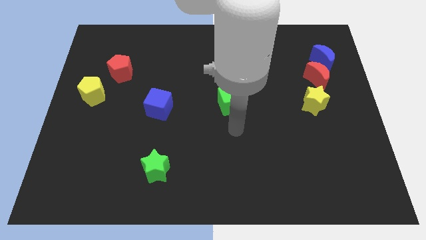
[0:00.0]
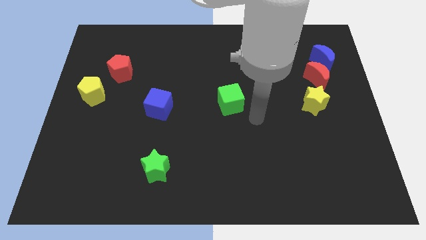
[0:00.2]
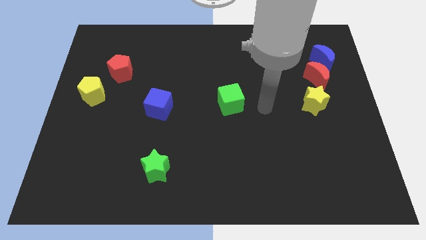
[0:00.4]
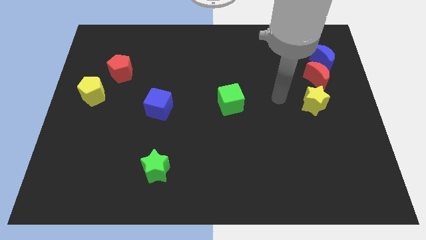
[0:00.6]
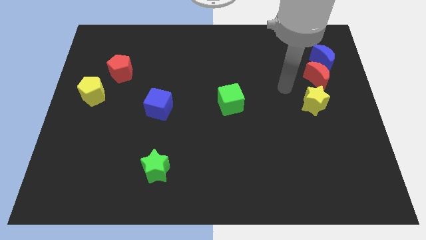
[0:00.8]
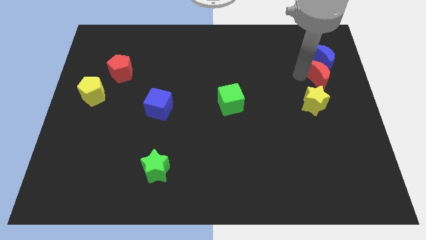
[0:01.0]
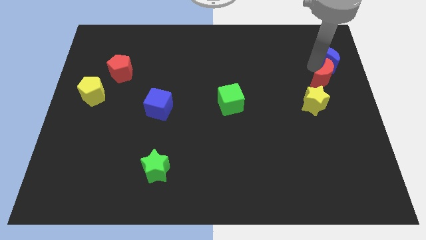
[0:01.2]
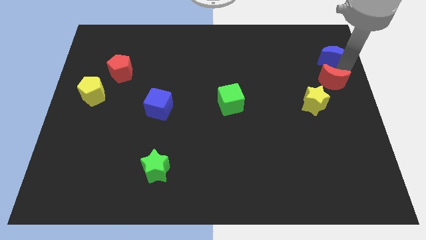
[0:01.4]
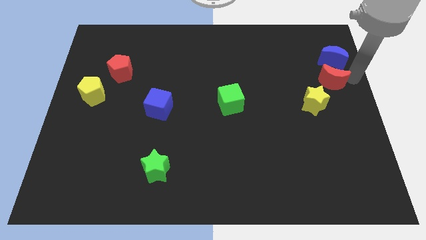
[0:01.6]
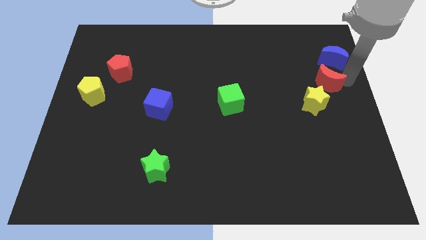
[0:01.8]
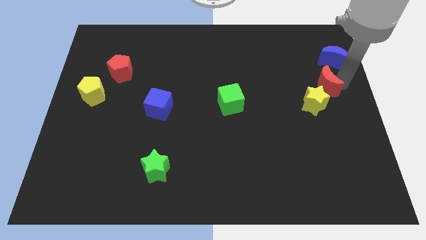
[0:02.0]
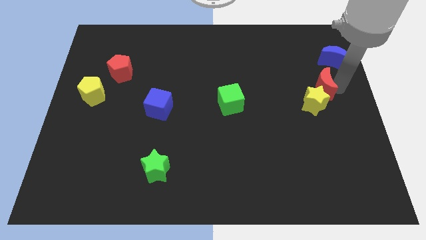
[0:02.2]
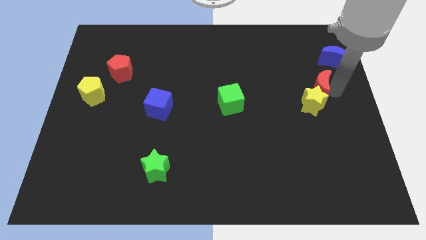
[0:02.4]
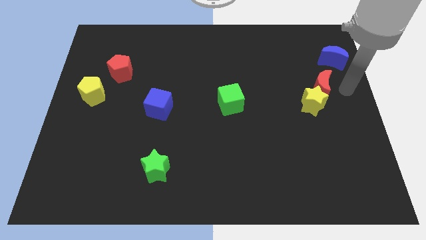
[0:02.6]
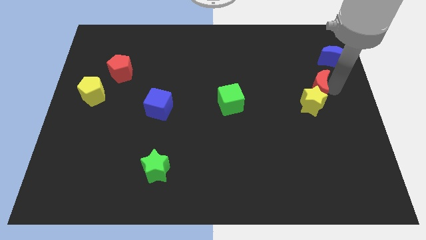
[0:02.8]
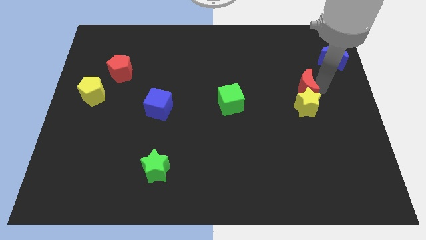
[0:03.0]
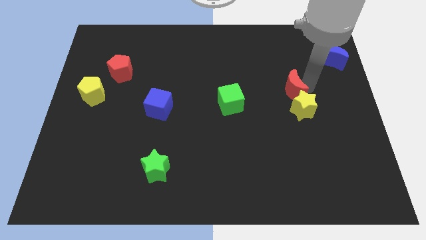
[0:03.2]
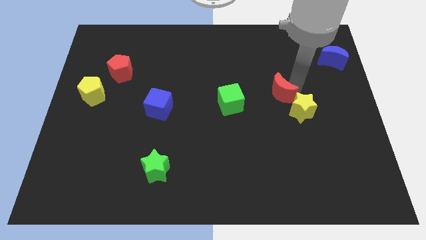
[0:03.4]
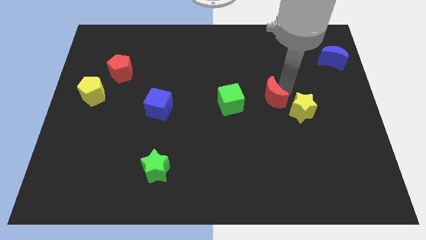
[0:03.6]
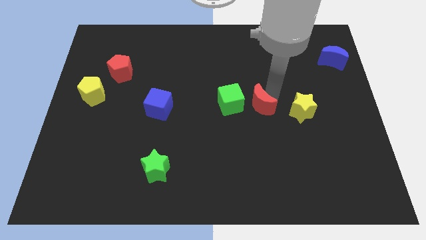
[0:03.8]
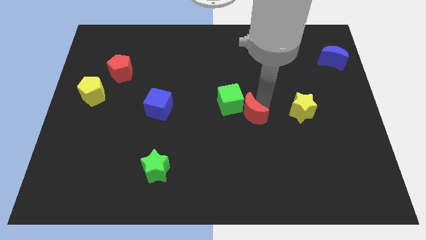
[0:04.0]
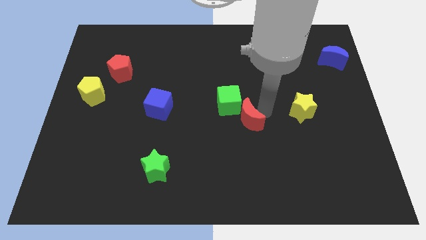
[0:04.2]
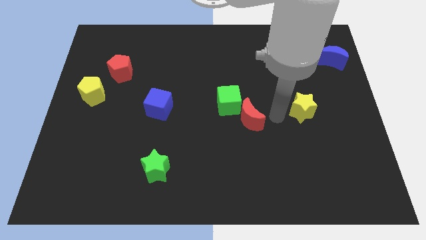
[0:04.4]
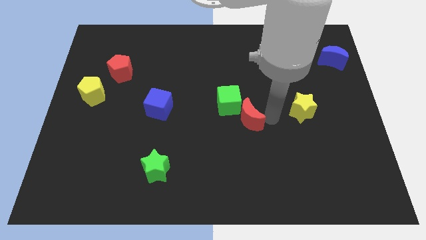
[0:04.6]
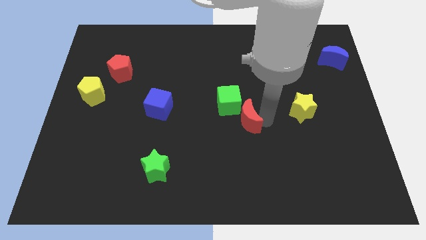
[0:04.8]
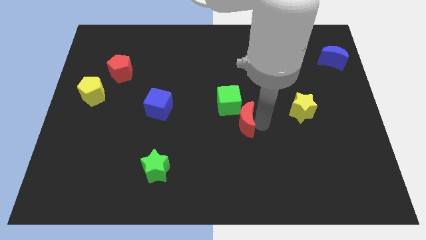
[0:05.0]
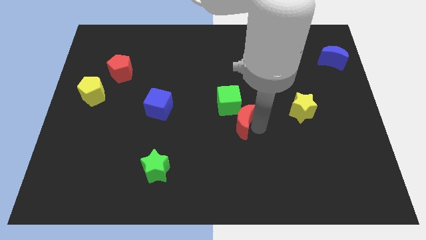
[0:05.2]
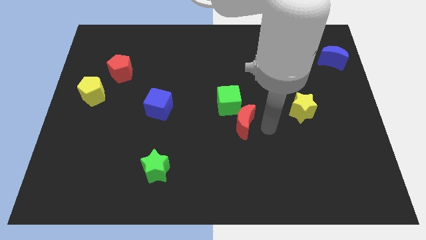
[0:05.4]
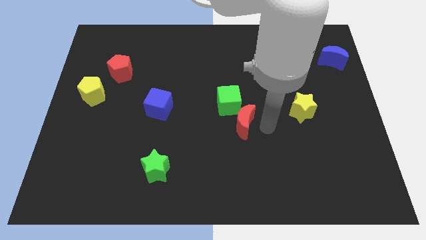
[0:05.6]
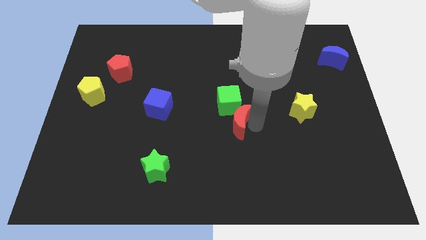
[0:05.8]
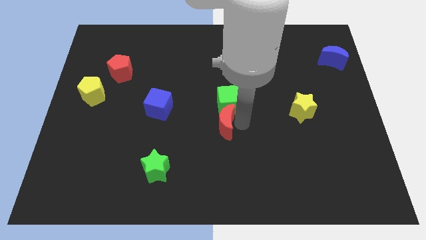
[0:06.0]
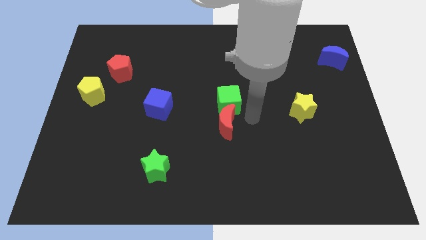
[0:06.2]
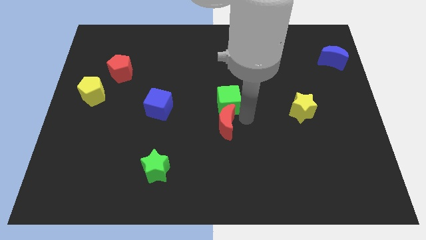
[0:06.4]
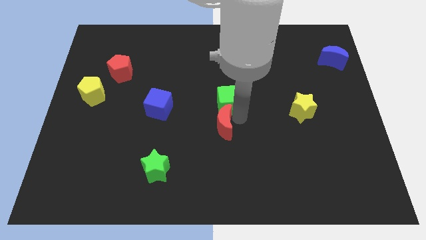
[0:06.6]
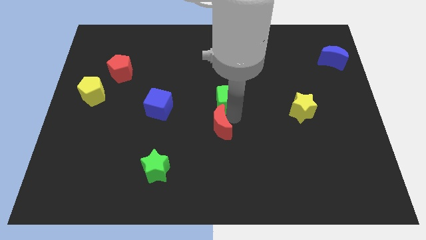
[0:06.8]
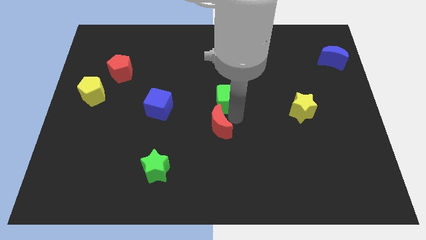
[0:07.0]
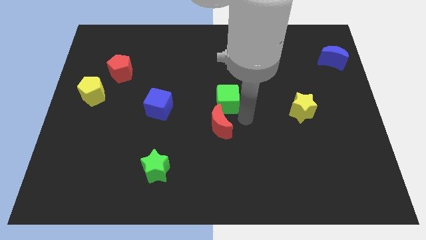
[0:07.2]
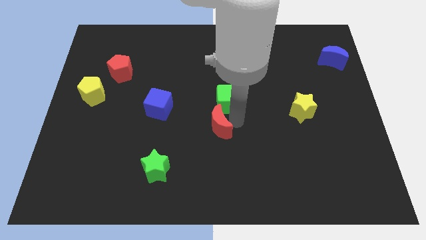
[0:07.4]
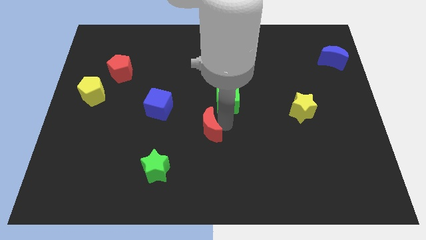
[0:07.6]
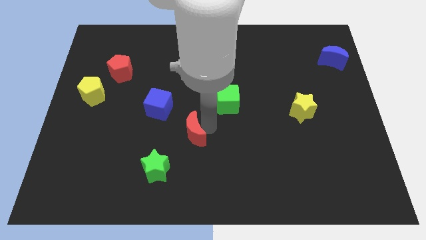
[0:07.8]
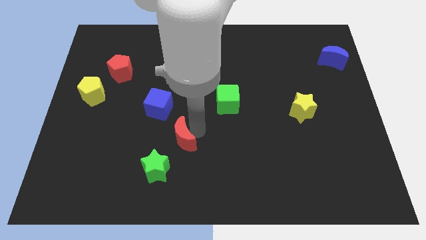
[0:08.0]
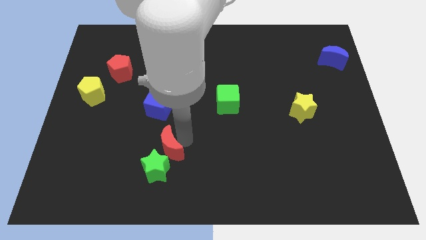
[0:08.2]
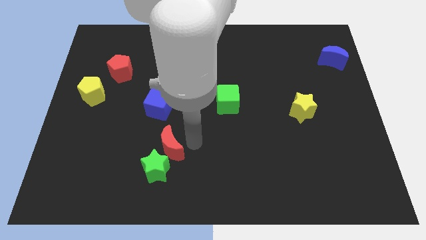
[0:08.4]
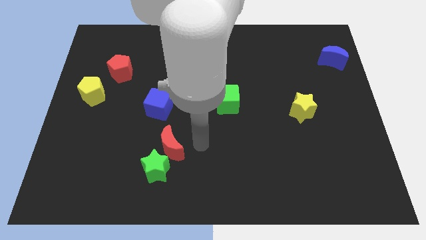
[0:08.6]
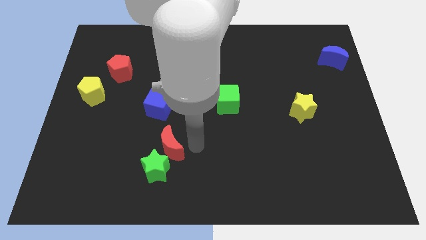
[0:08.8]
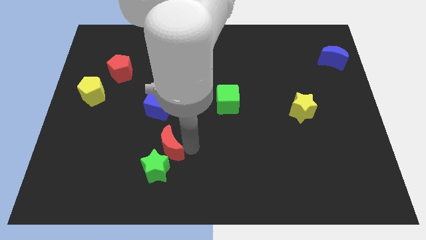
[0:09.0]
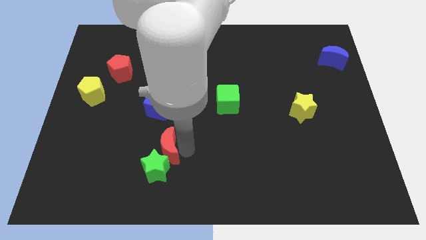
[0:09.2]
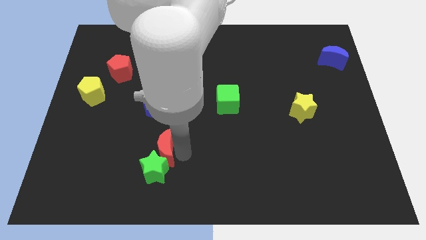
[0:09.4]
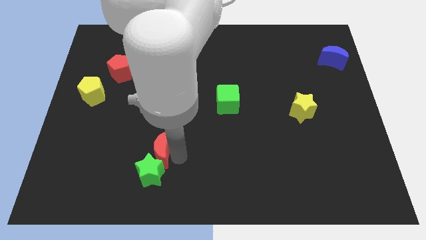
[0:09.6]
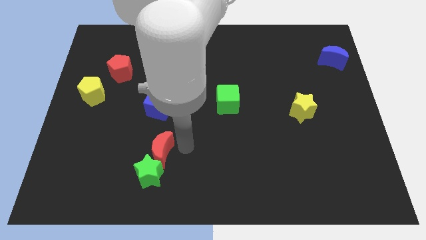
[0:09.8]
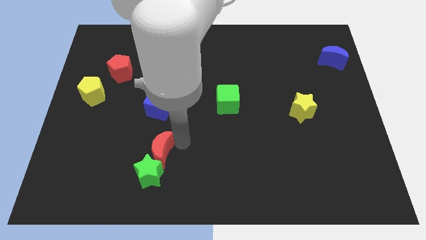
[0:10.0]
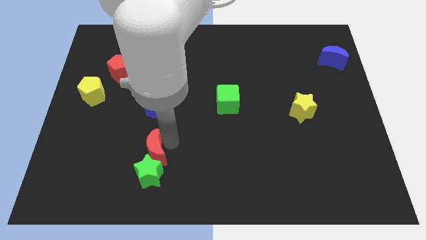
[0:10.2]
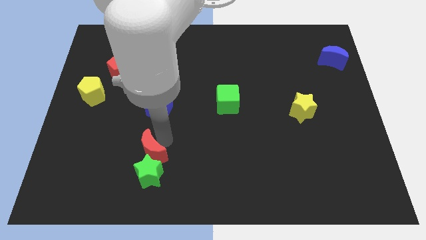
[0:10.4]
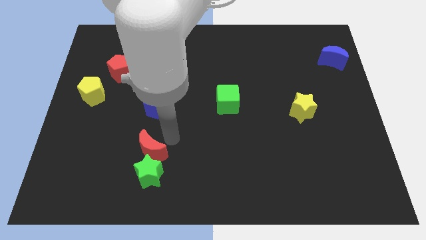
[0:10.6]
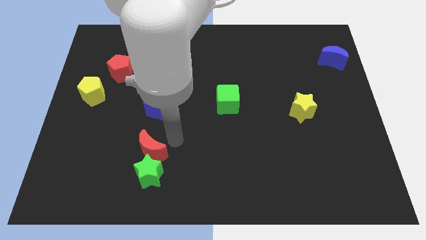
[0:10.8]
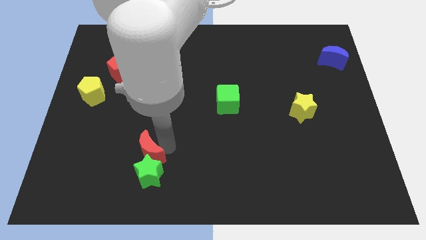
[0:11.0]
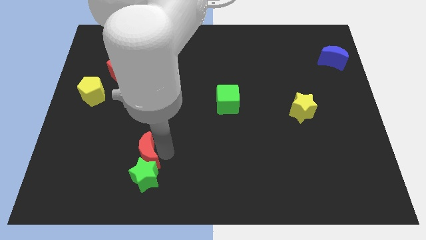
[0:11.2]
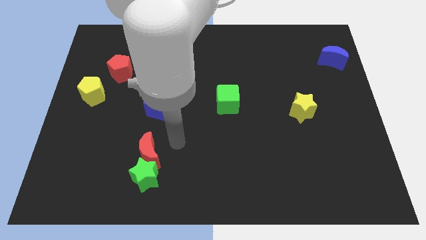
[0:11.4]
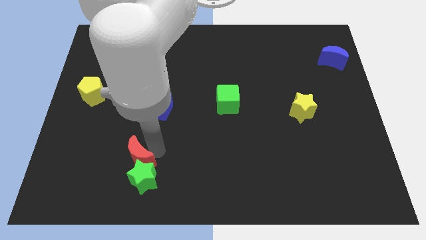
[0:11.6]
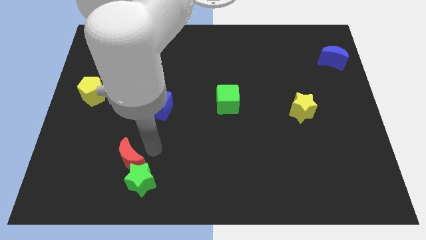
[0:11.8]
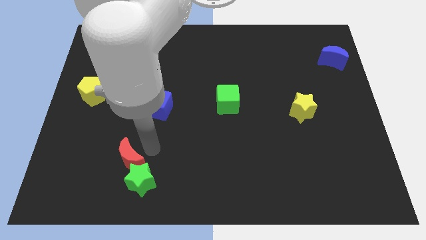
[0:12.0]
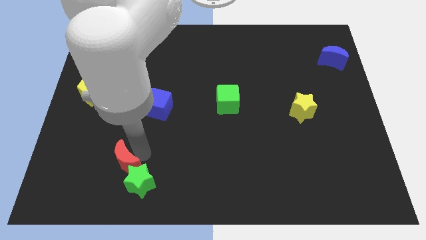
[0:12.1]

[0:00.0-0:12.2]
move the red moon left of the green star

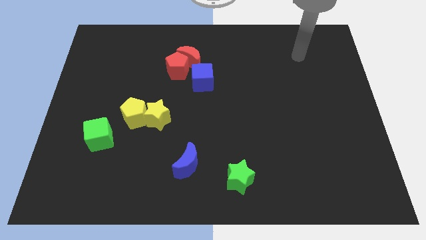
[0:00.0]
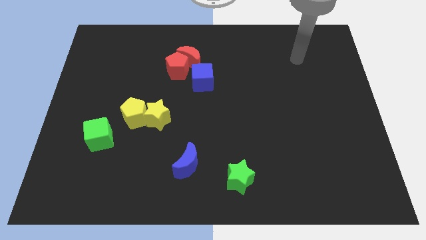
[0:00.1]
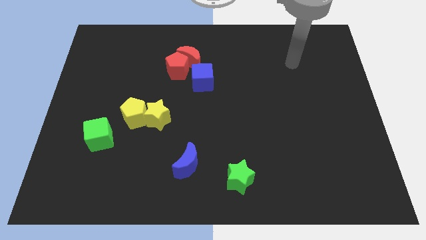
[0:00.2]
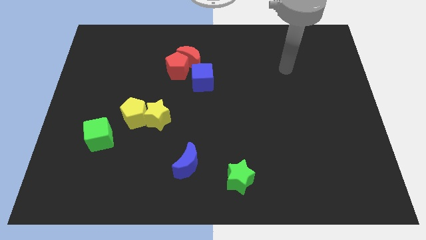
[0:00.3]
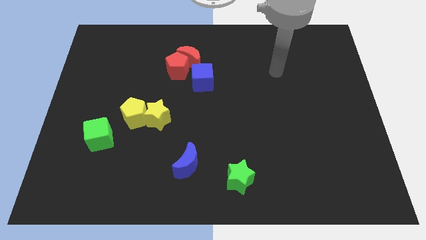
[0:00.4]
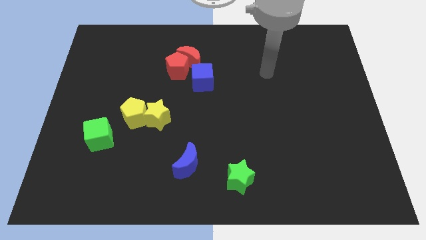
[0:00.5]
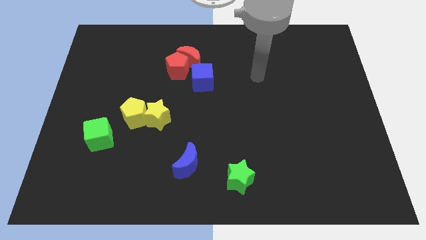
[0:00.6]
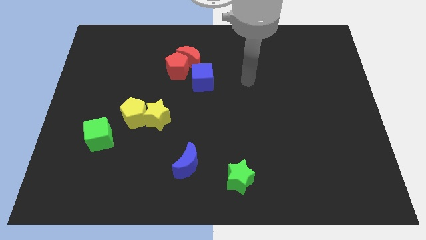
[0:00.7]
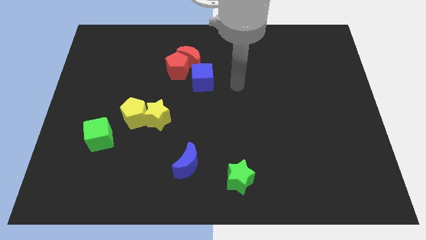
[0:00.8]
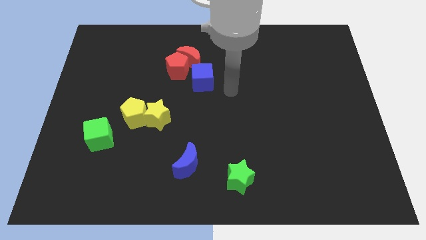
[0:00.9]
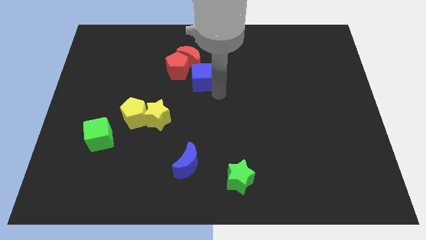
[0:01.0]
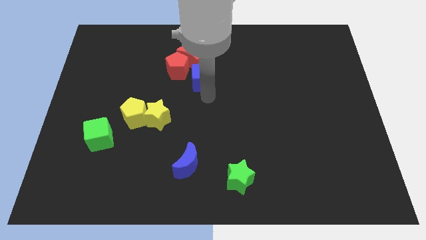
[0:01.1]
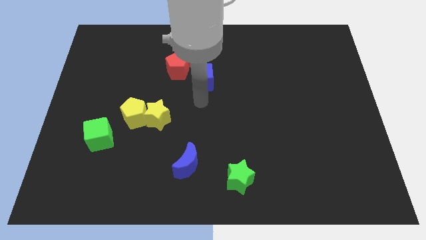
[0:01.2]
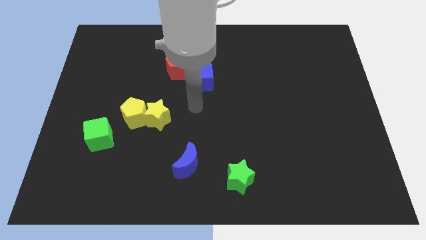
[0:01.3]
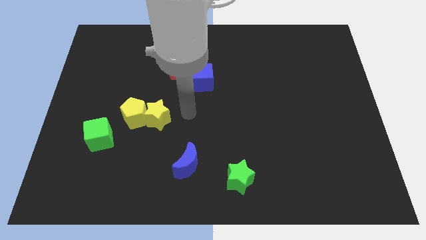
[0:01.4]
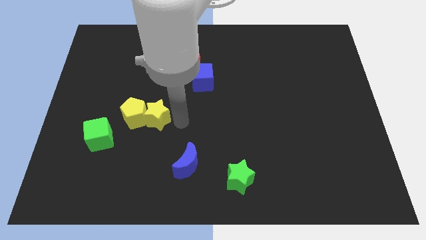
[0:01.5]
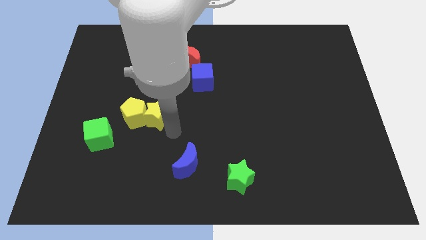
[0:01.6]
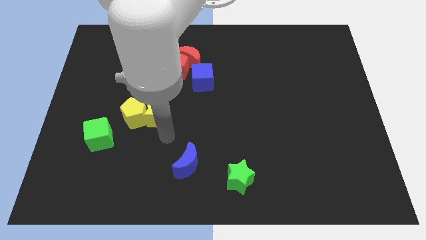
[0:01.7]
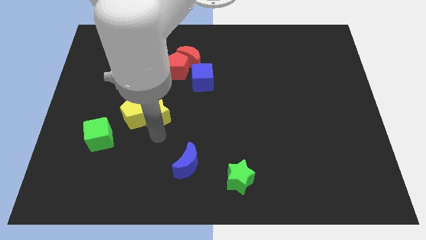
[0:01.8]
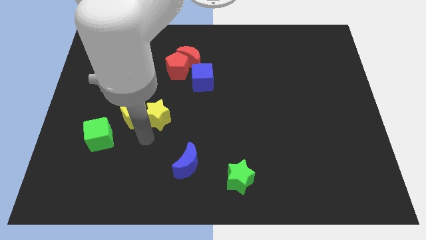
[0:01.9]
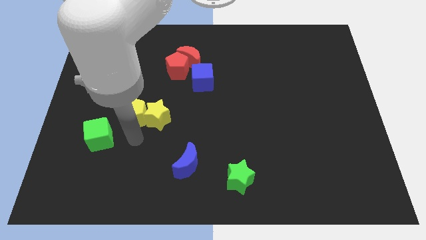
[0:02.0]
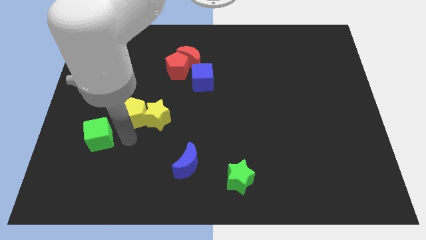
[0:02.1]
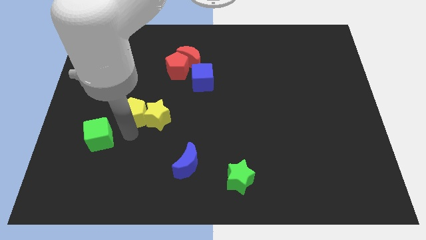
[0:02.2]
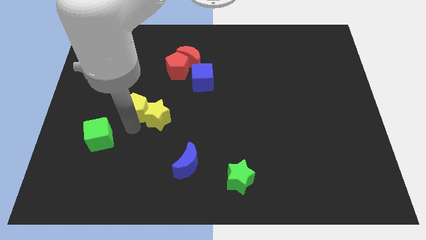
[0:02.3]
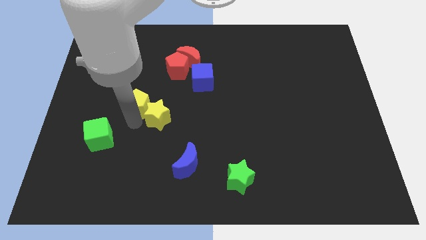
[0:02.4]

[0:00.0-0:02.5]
slide the yellow pentagon to the top side of the yellow star
